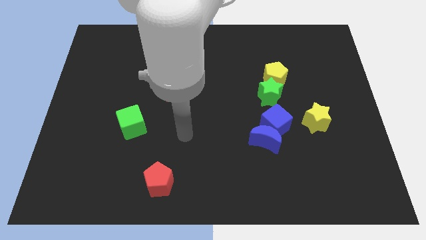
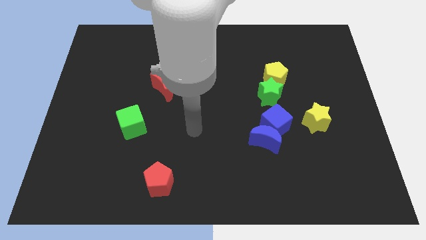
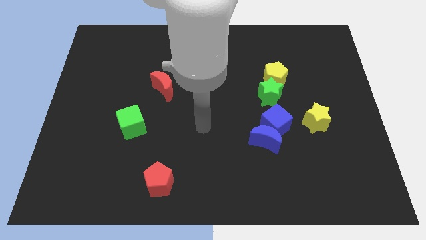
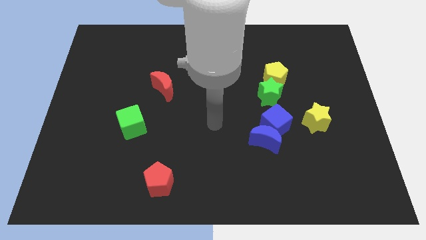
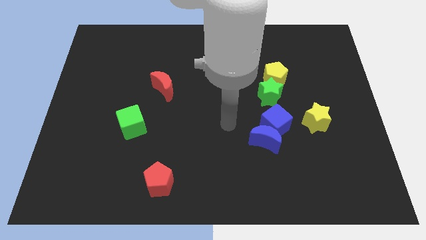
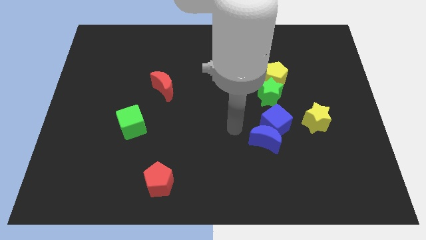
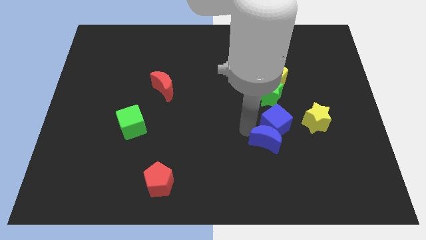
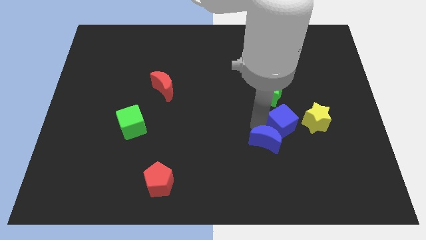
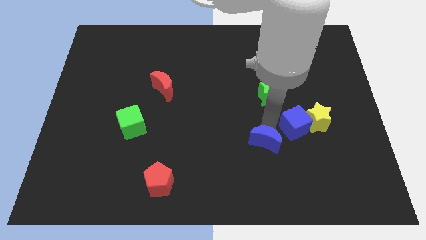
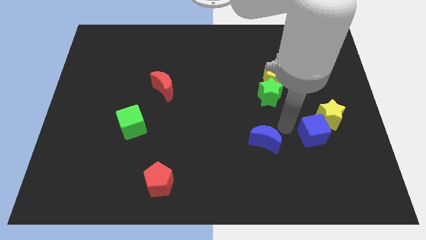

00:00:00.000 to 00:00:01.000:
separate the blue moon from the blue cube

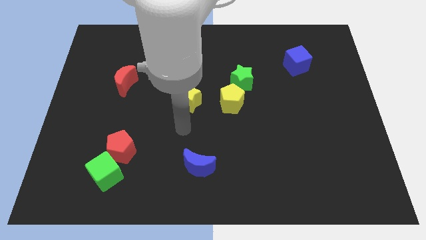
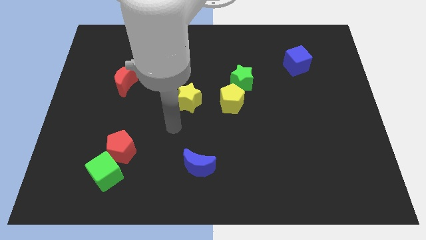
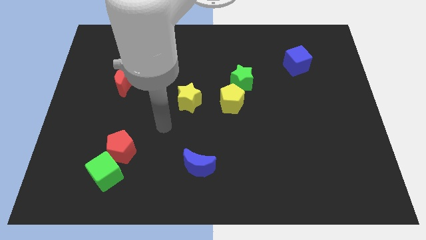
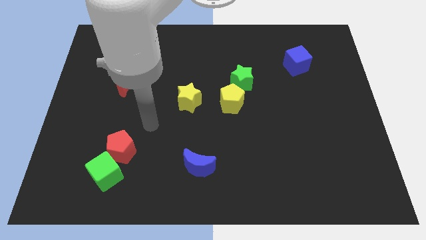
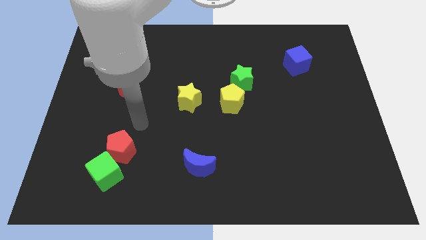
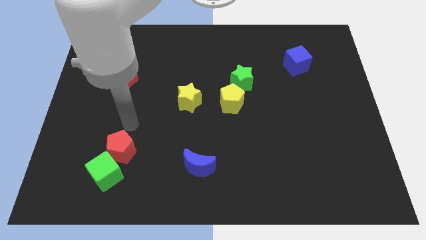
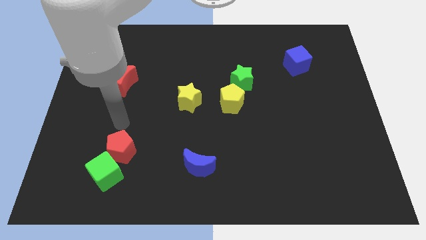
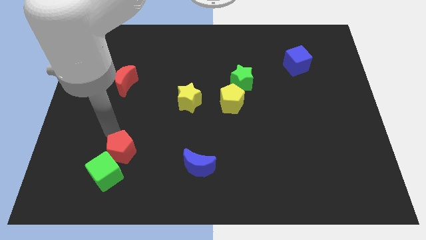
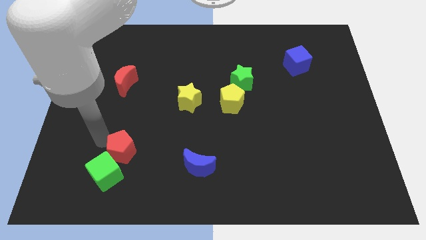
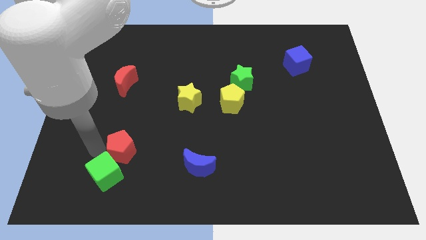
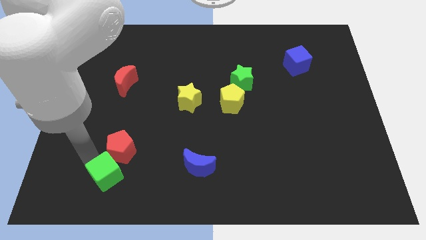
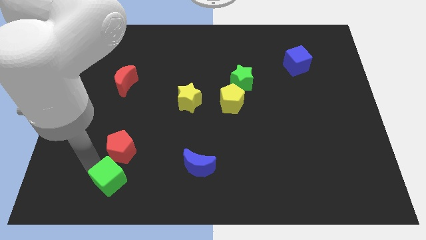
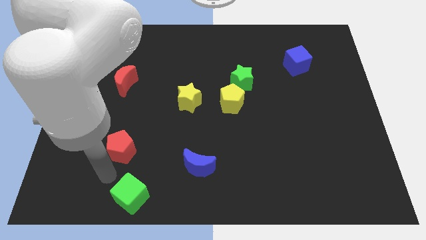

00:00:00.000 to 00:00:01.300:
pull the red pentagon apart from the green cube

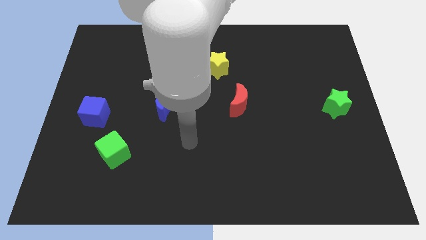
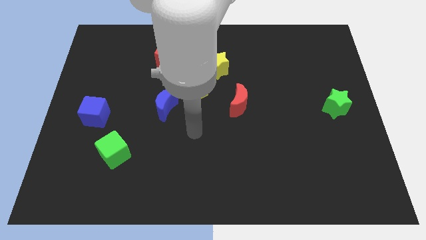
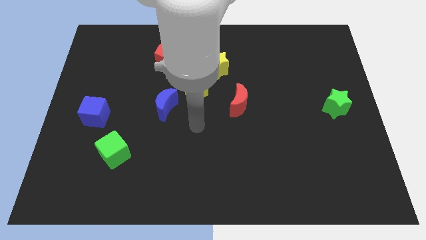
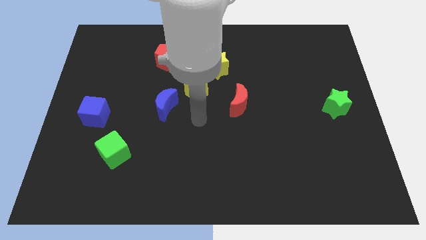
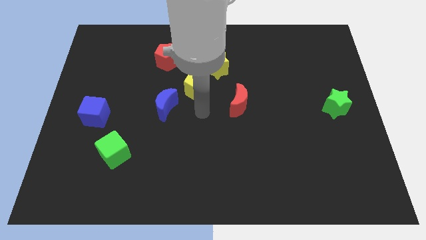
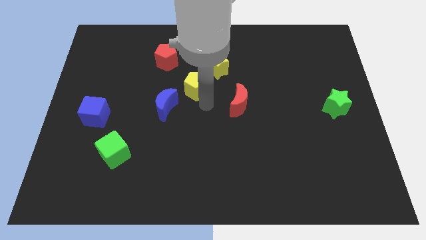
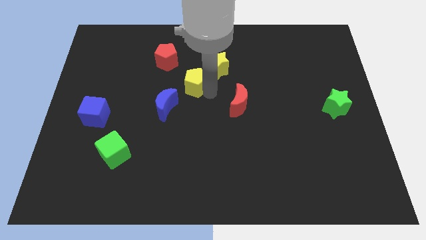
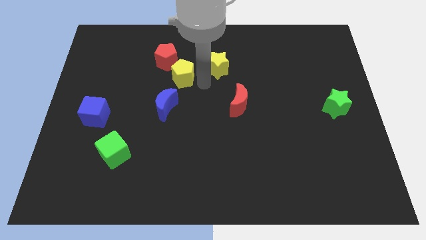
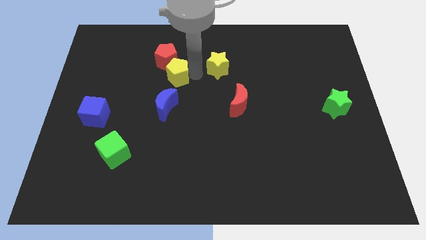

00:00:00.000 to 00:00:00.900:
move the yellow star away from the yellow pentagon

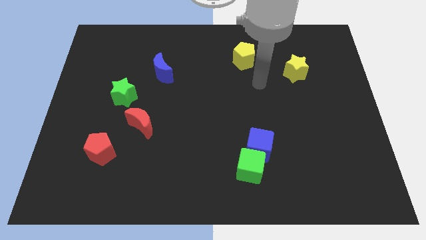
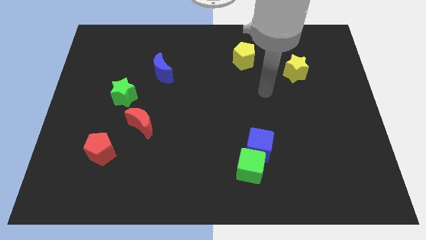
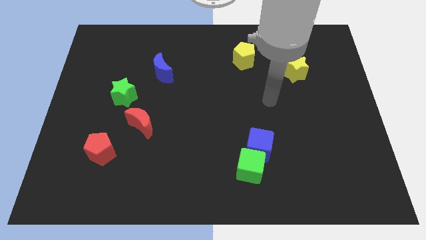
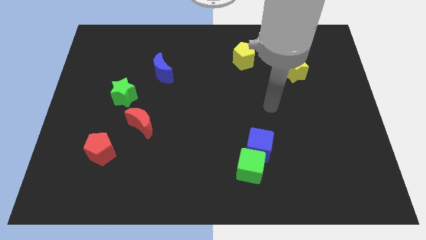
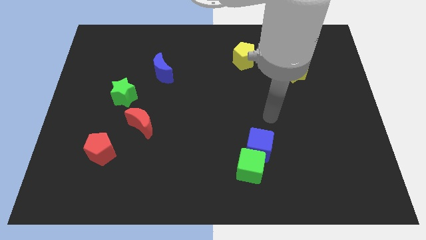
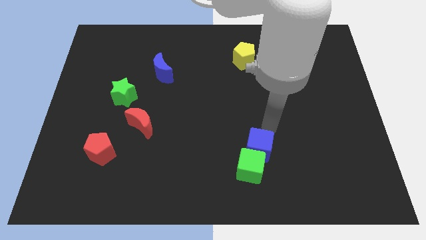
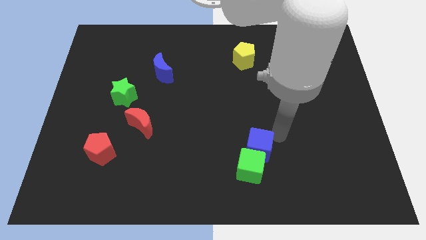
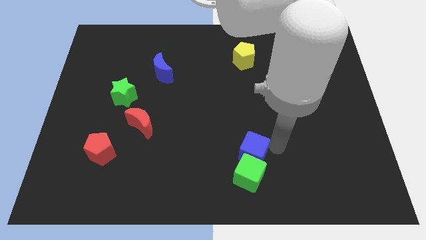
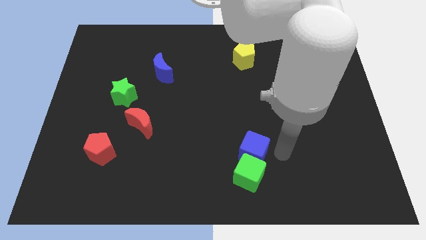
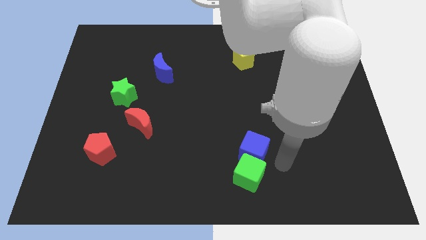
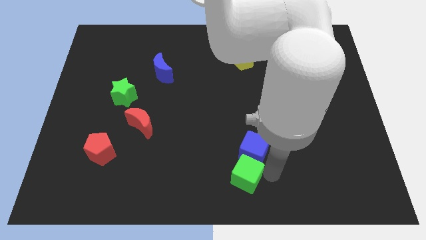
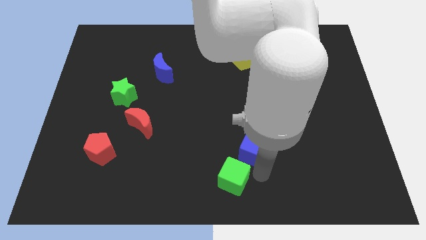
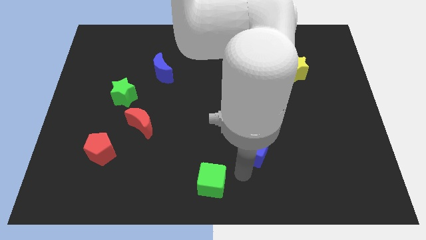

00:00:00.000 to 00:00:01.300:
separate the blue cube from the green cube

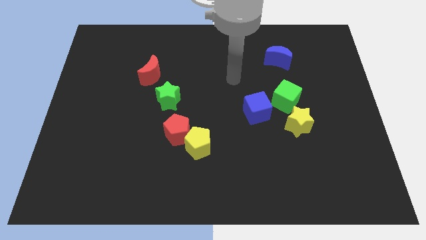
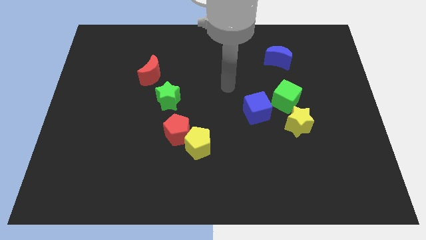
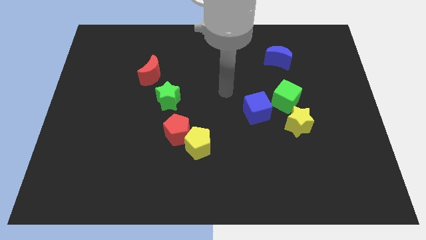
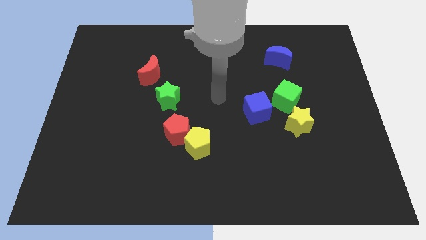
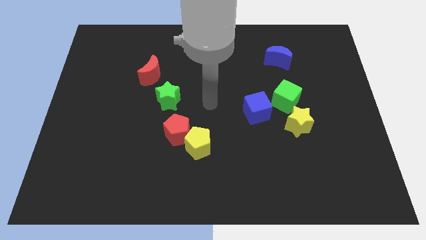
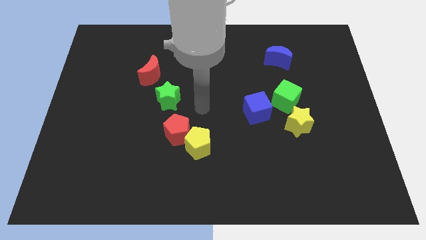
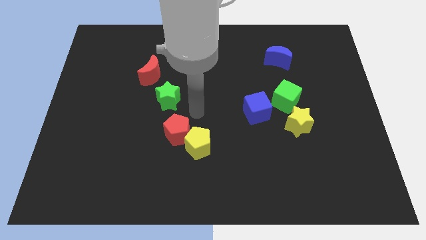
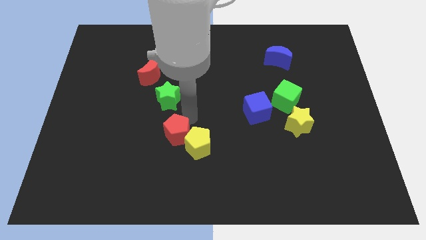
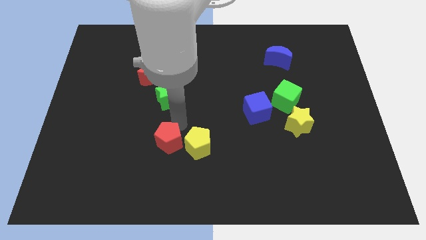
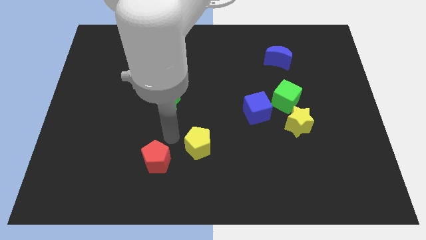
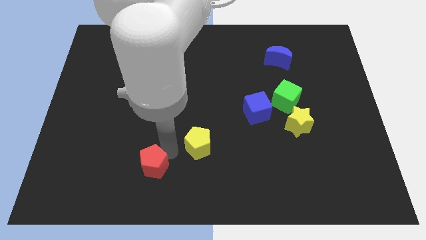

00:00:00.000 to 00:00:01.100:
separate the yellow pentagon from the red pentagon

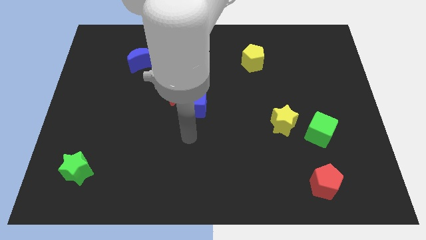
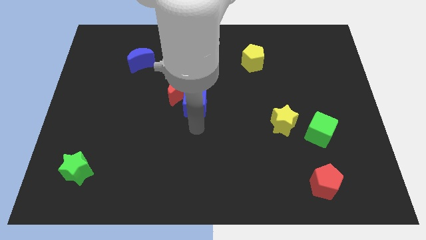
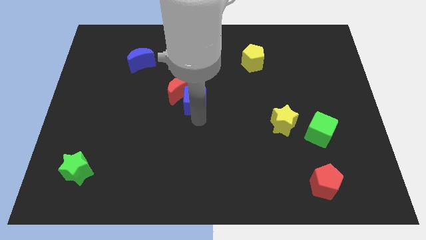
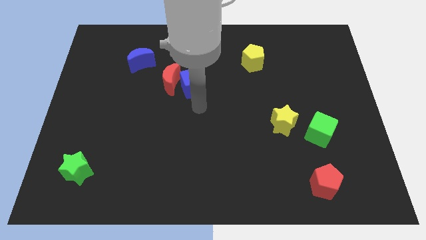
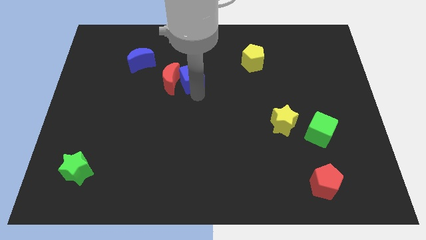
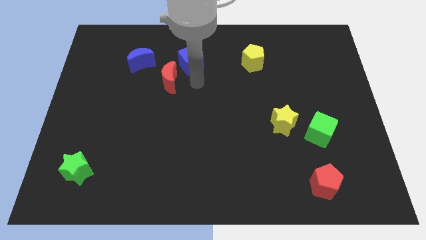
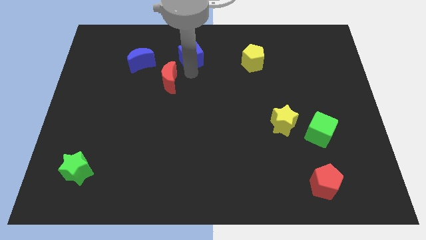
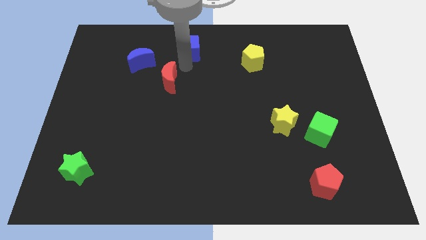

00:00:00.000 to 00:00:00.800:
pull the red moon apart from the blue cube

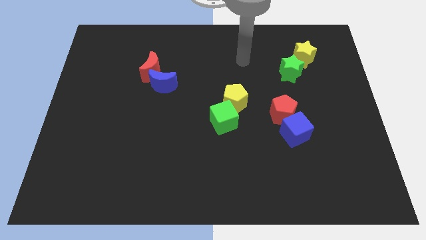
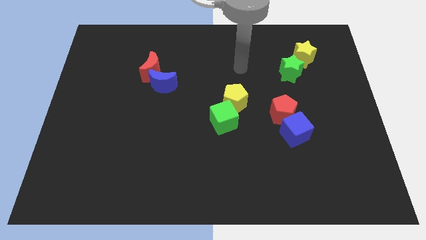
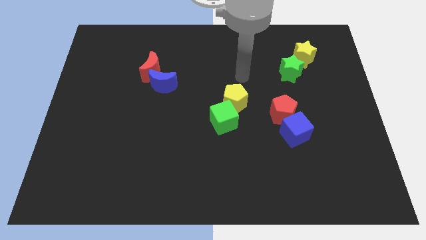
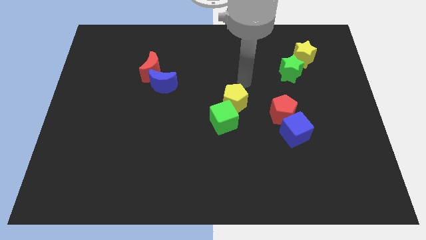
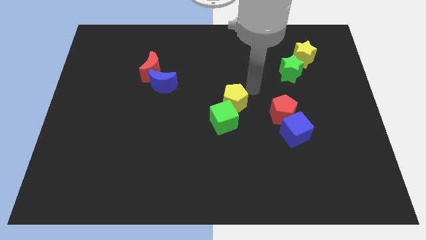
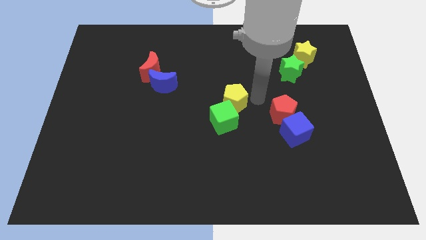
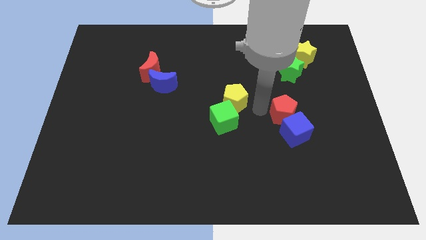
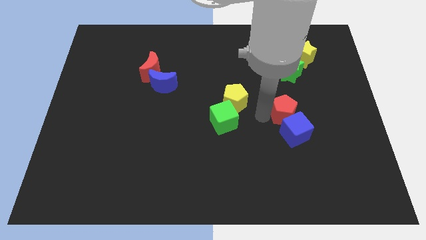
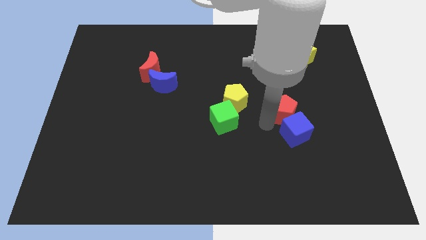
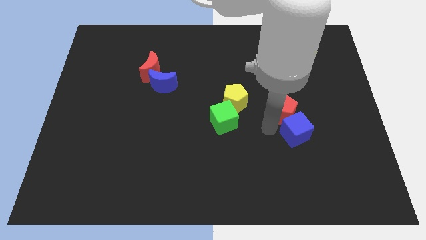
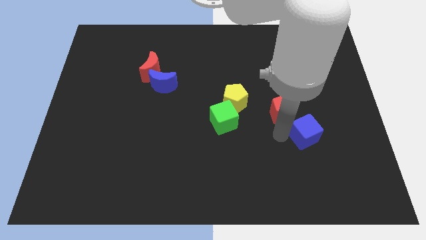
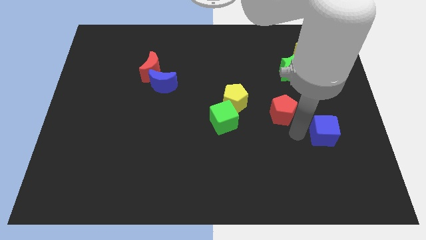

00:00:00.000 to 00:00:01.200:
pull the red pentagon apart from the blue cube

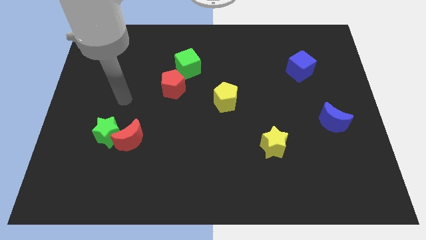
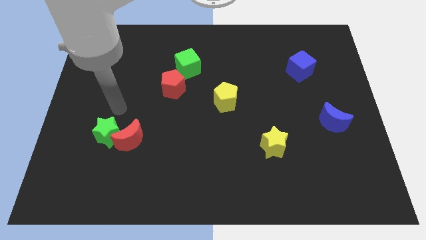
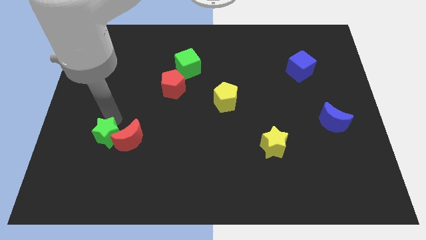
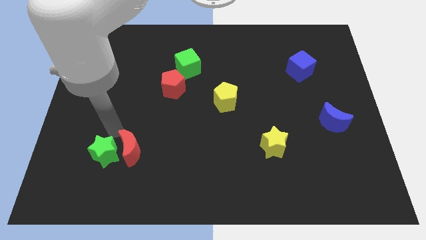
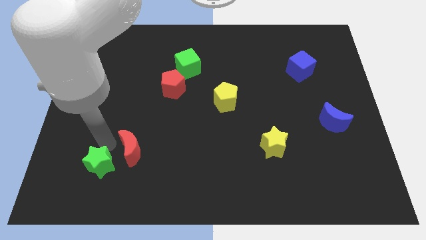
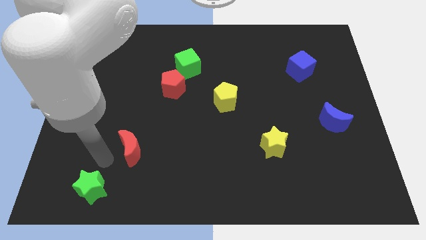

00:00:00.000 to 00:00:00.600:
move the red moon away from the green star

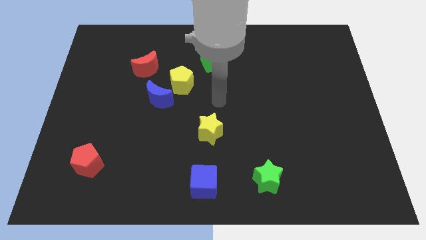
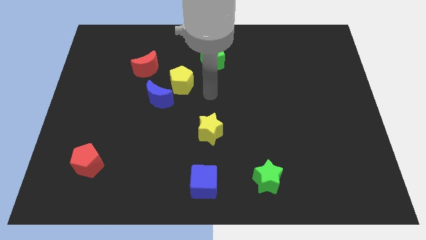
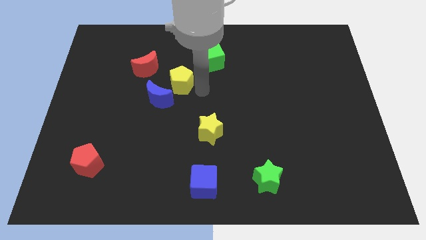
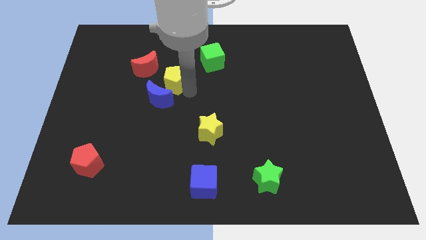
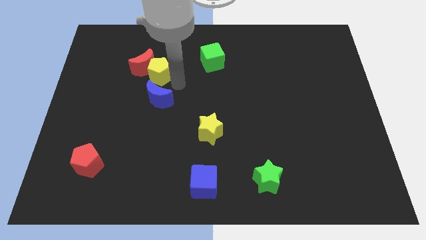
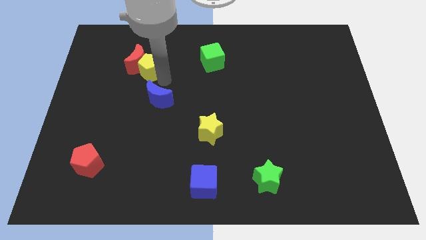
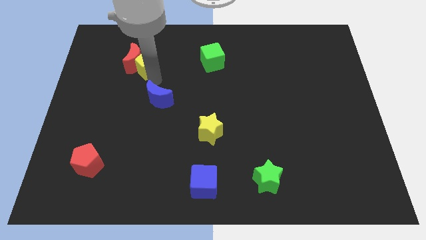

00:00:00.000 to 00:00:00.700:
move the blue moon away from the yellow pentagon

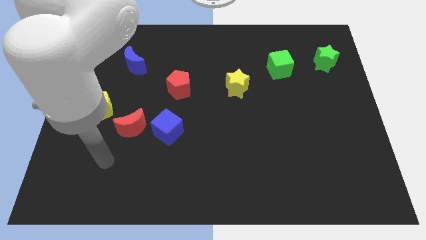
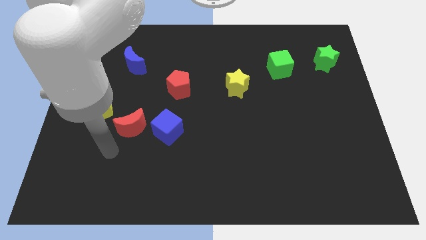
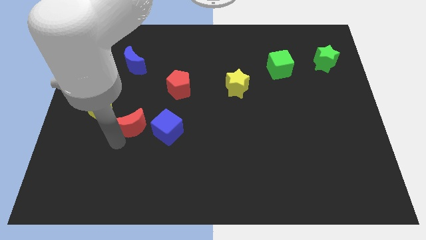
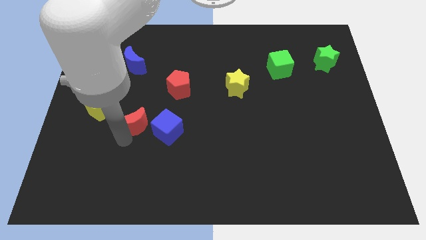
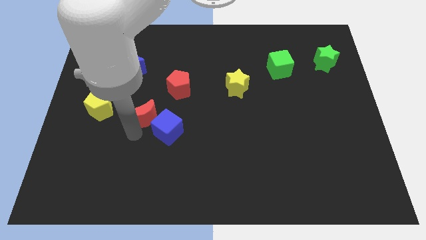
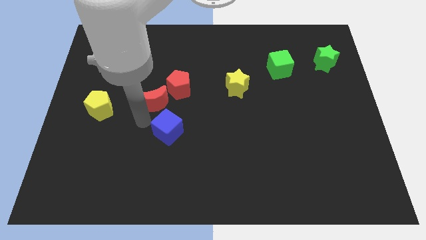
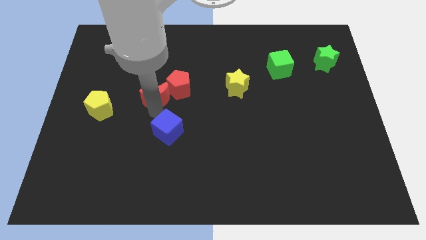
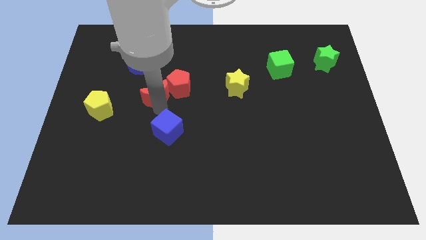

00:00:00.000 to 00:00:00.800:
separate the blue cube from the red moon
